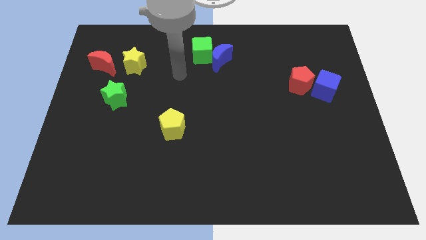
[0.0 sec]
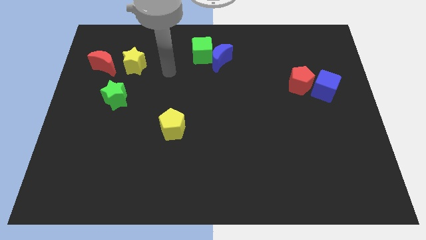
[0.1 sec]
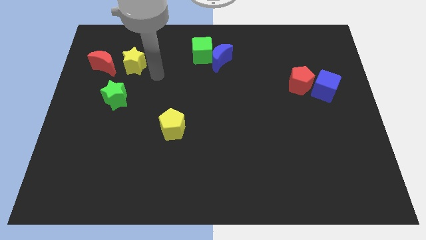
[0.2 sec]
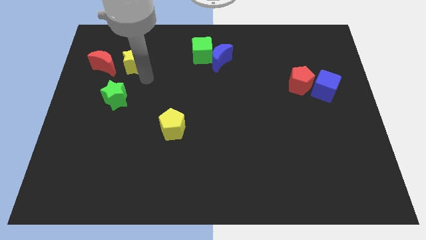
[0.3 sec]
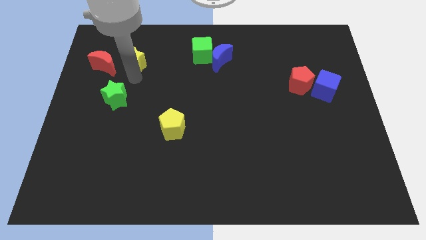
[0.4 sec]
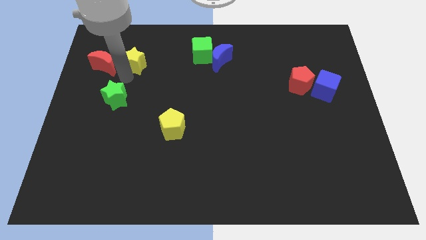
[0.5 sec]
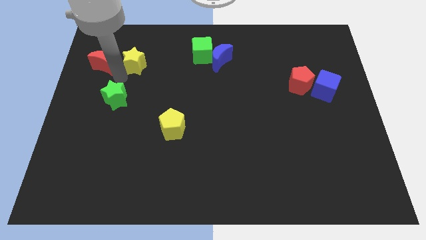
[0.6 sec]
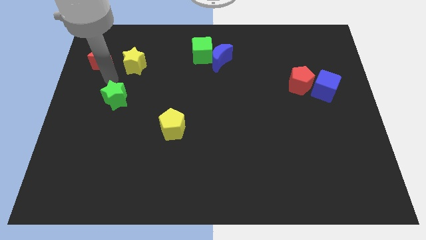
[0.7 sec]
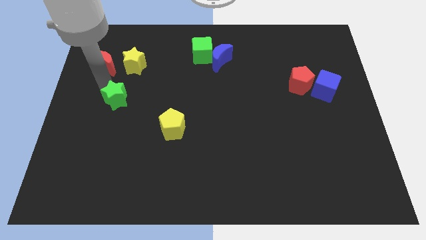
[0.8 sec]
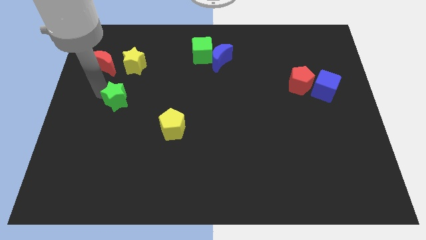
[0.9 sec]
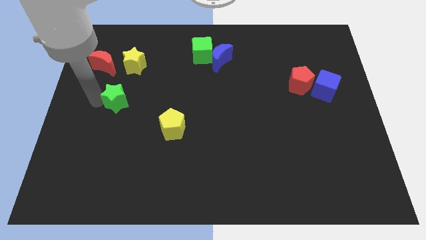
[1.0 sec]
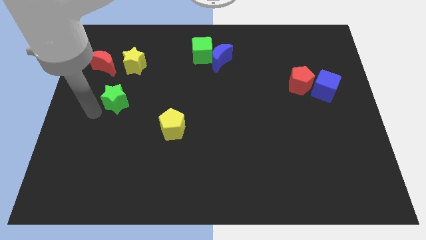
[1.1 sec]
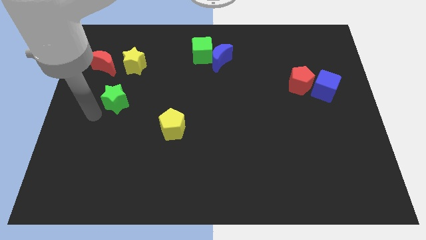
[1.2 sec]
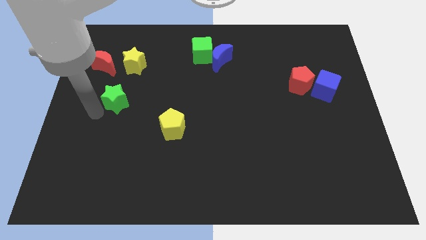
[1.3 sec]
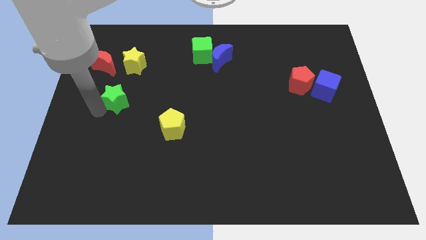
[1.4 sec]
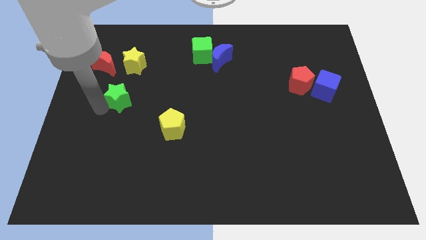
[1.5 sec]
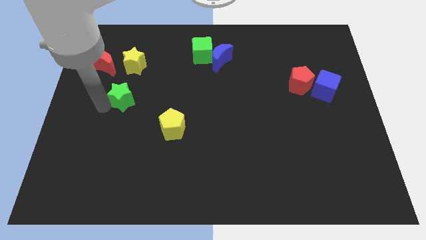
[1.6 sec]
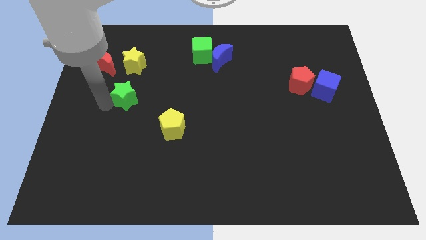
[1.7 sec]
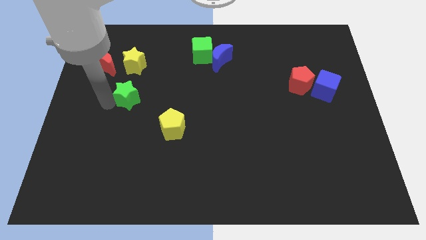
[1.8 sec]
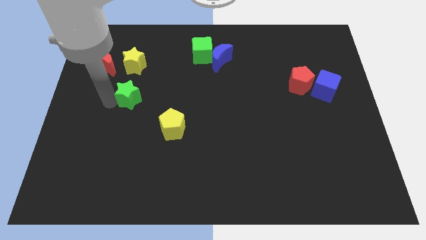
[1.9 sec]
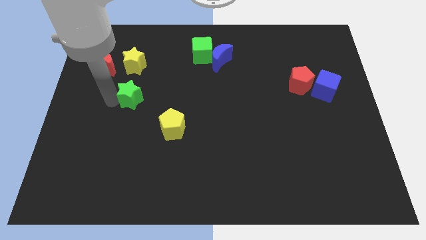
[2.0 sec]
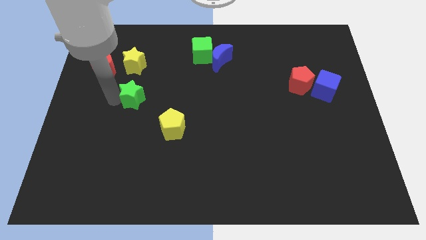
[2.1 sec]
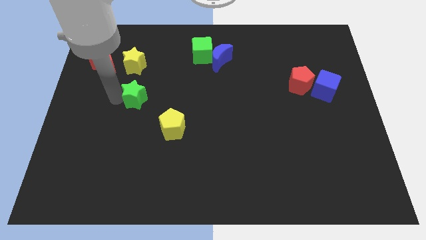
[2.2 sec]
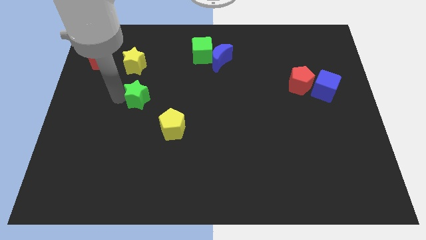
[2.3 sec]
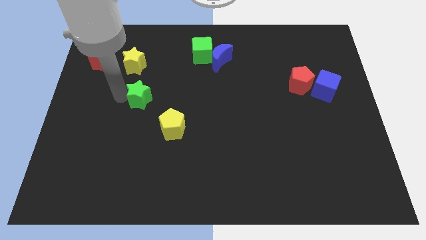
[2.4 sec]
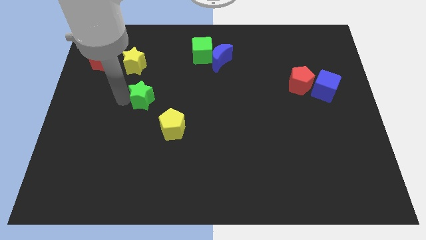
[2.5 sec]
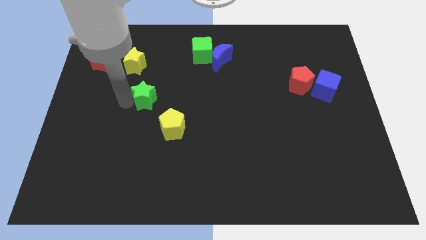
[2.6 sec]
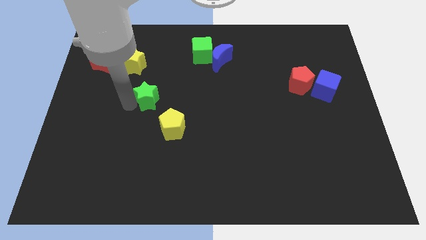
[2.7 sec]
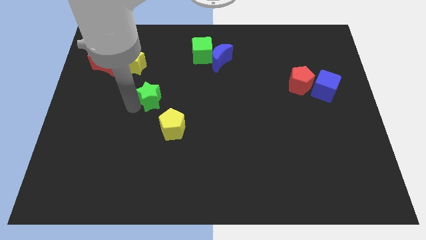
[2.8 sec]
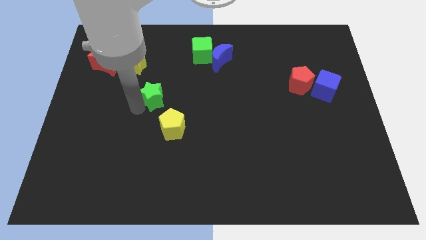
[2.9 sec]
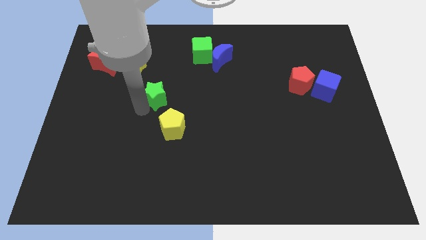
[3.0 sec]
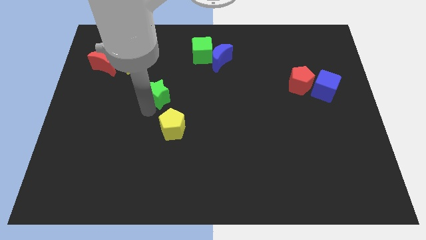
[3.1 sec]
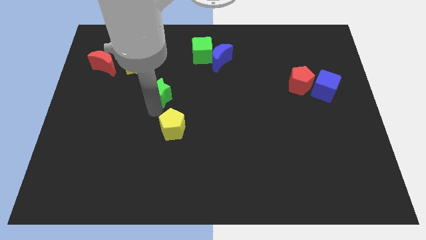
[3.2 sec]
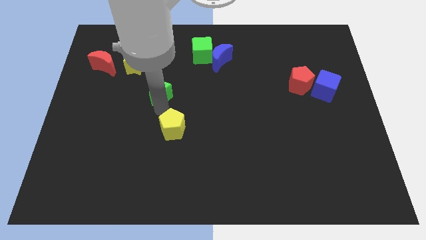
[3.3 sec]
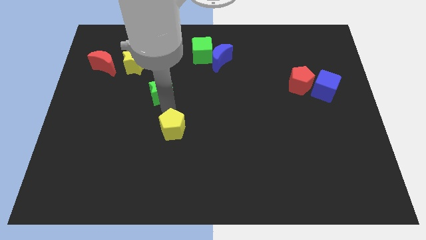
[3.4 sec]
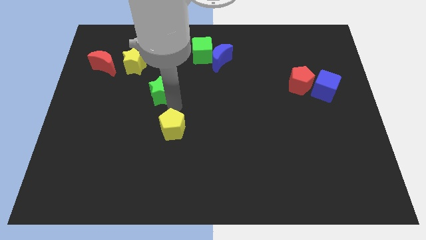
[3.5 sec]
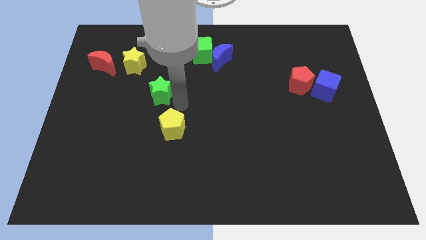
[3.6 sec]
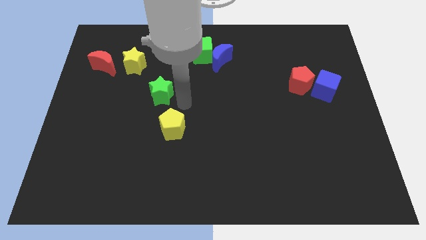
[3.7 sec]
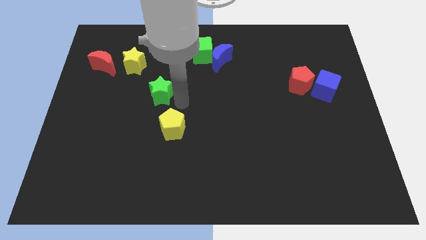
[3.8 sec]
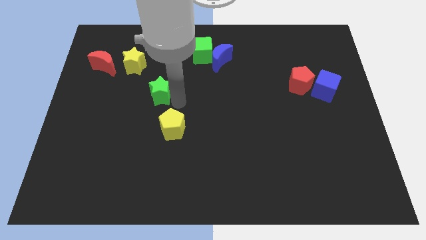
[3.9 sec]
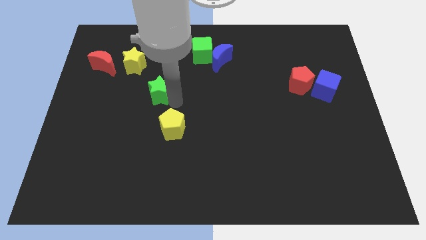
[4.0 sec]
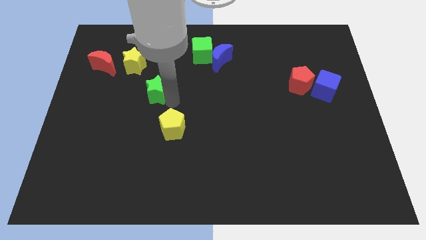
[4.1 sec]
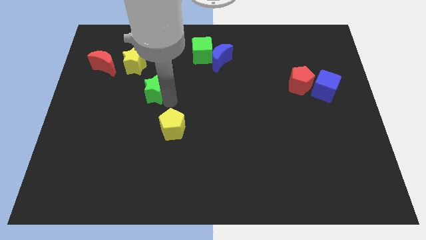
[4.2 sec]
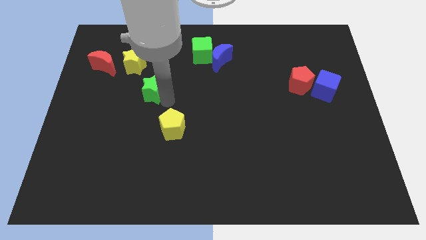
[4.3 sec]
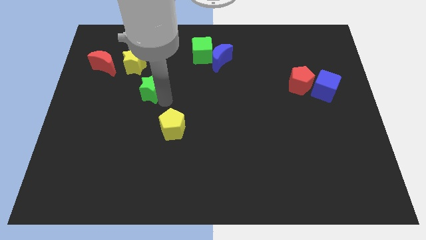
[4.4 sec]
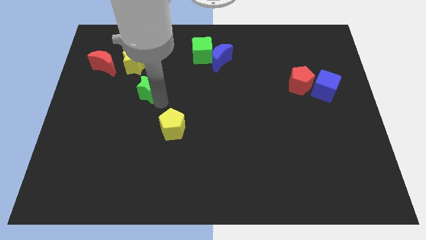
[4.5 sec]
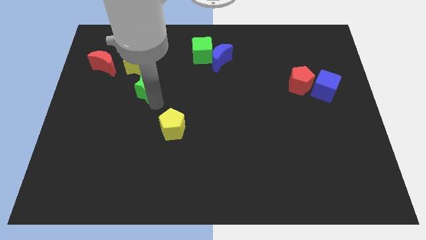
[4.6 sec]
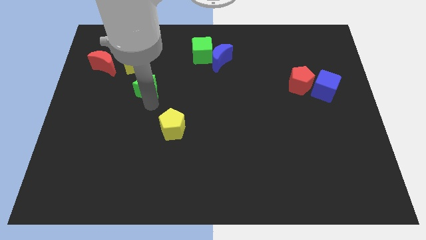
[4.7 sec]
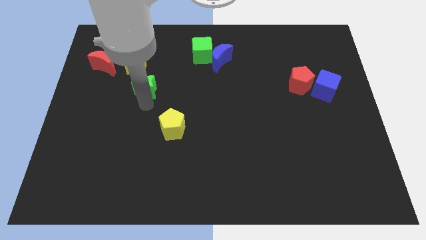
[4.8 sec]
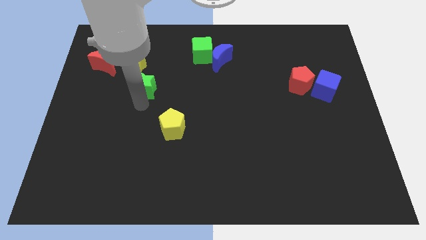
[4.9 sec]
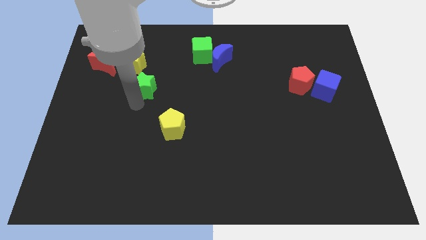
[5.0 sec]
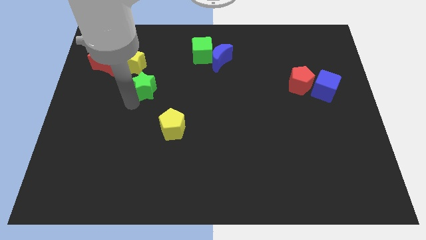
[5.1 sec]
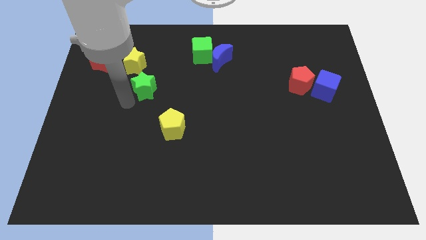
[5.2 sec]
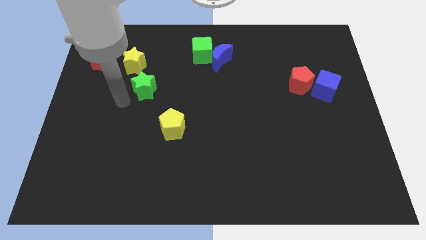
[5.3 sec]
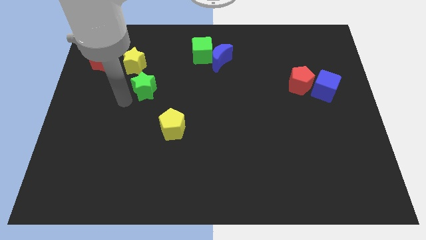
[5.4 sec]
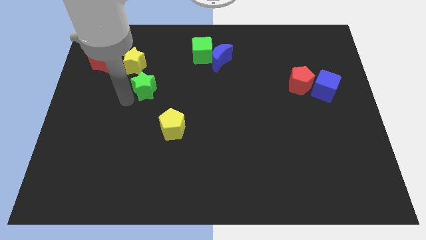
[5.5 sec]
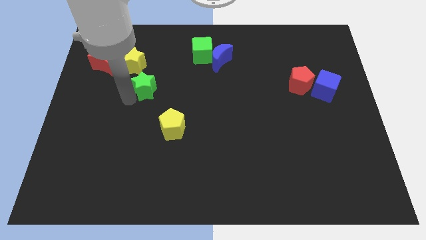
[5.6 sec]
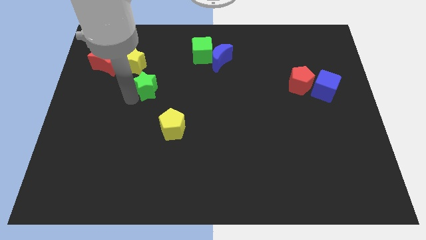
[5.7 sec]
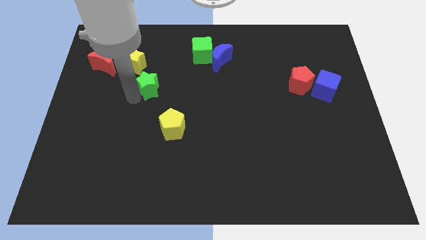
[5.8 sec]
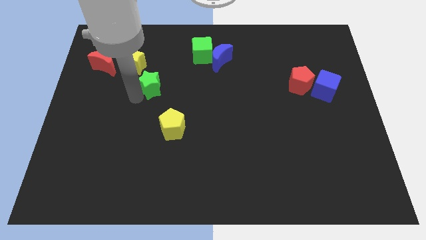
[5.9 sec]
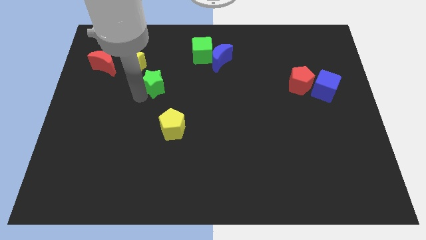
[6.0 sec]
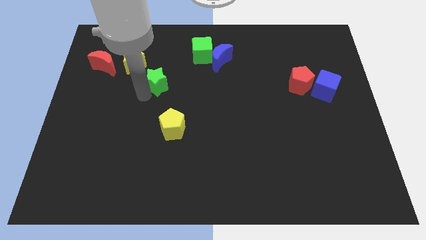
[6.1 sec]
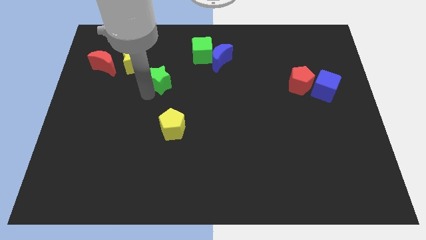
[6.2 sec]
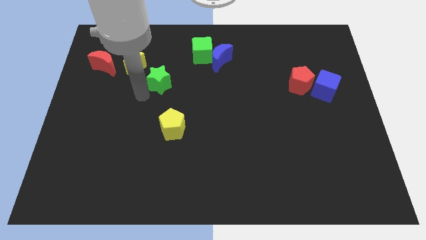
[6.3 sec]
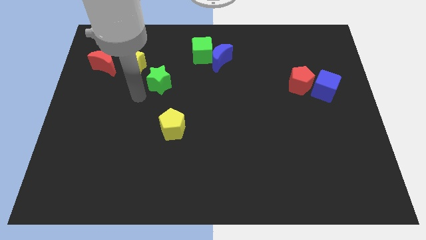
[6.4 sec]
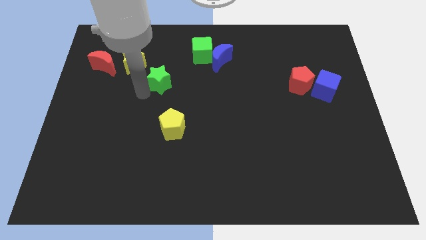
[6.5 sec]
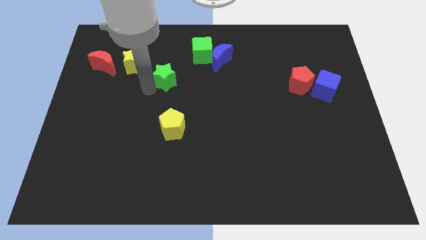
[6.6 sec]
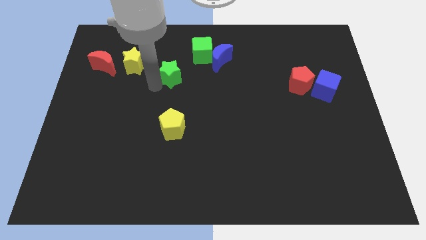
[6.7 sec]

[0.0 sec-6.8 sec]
push the green star to the bottom left side of the green cube
